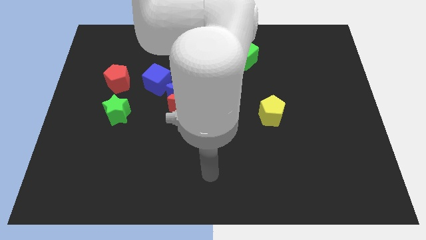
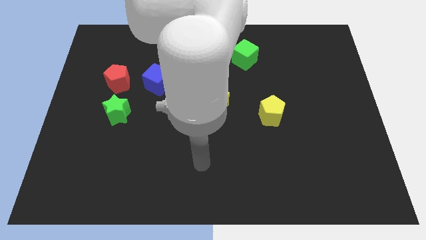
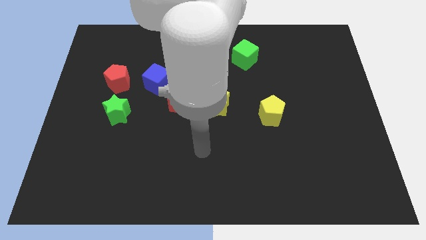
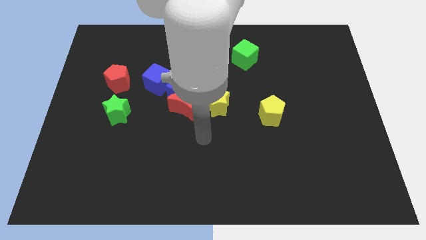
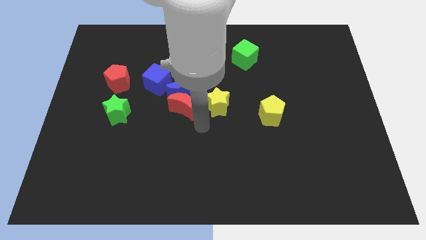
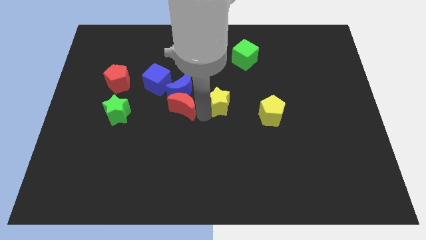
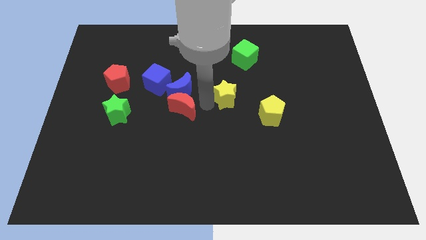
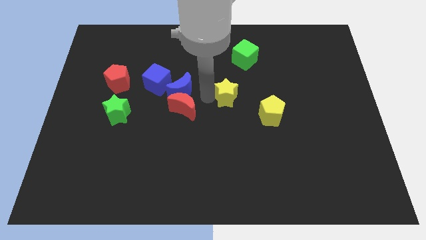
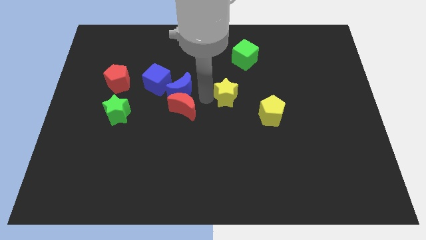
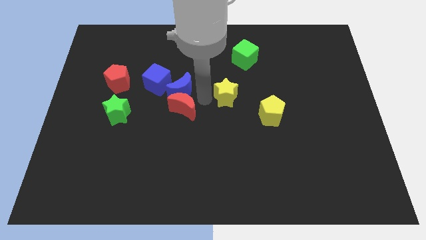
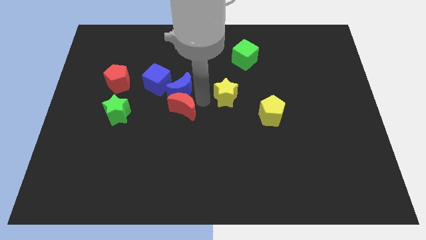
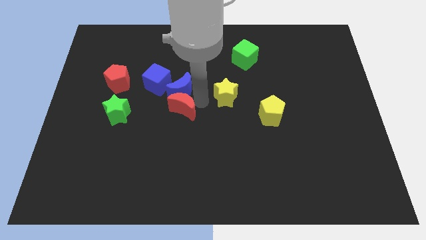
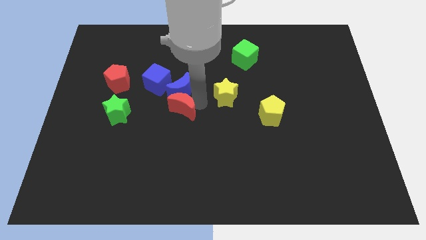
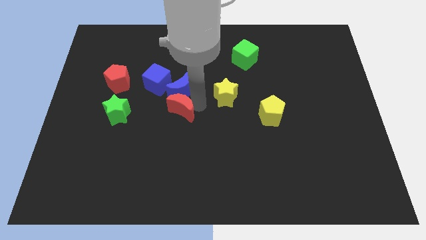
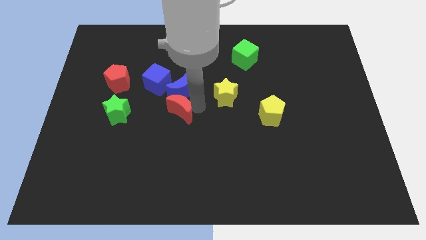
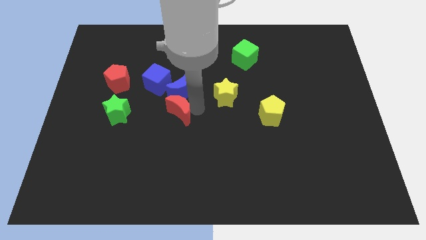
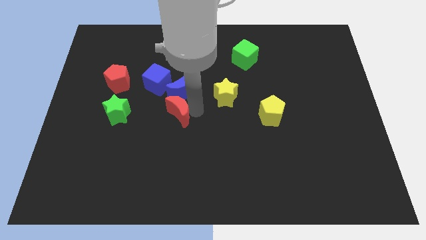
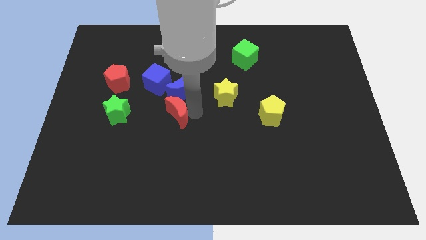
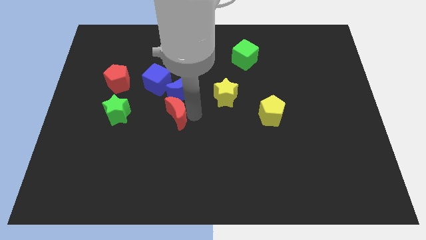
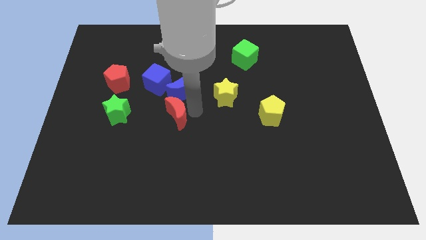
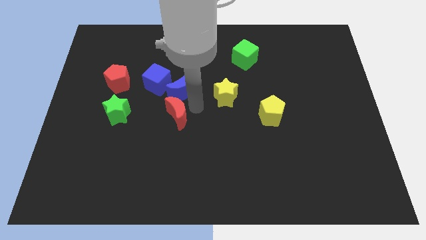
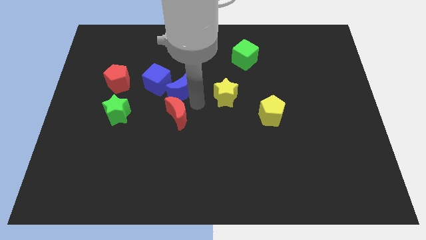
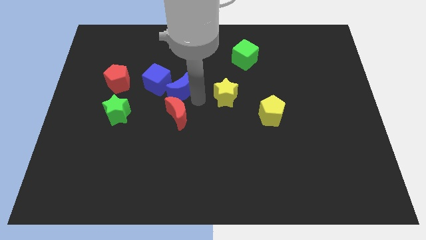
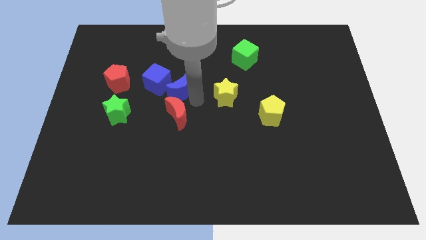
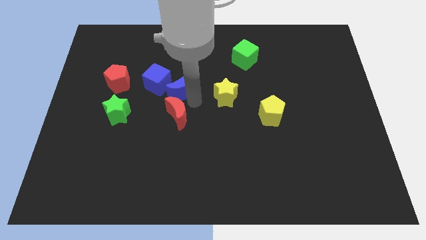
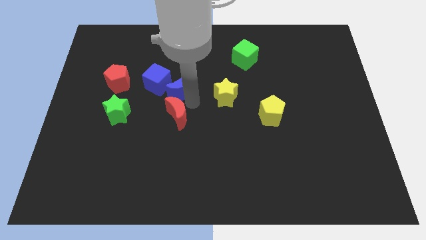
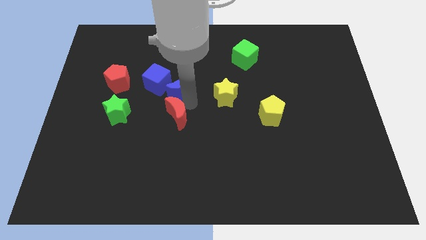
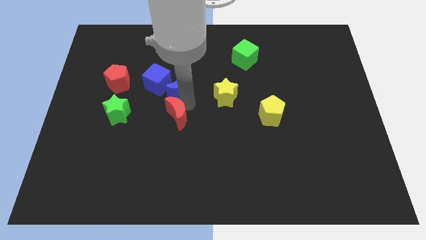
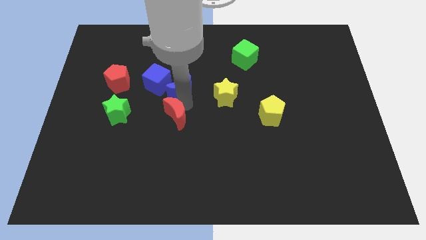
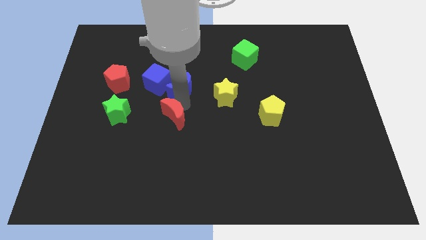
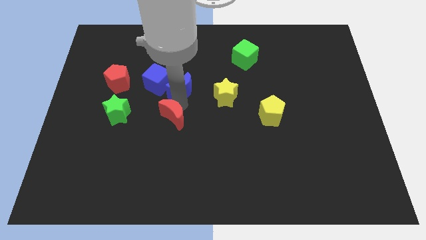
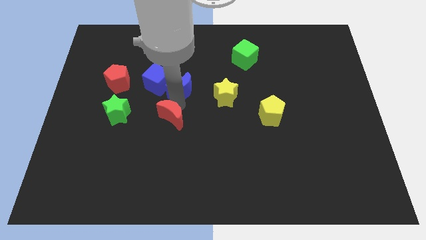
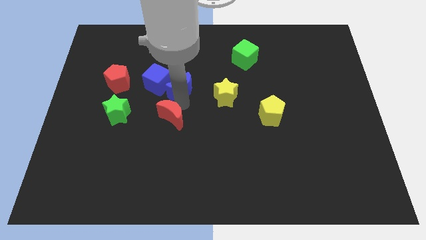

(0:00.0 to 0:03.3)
pull the red moon apart from the blue moon and yellow star

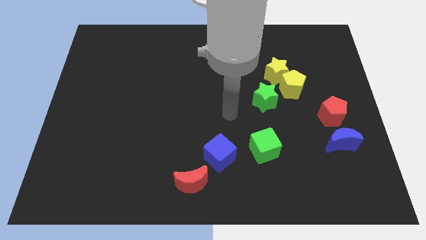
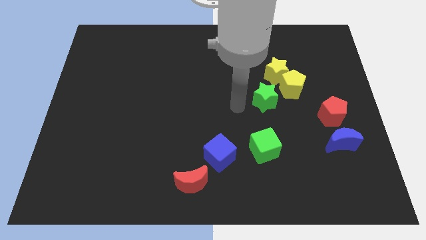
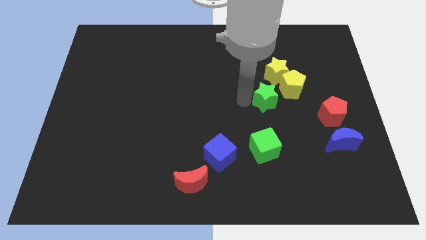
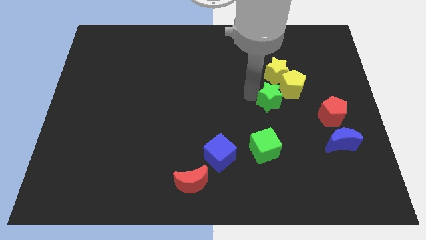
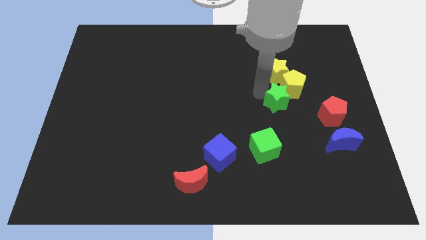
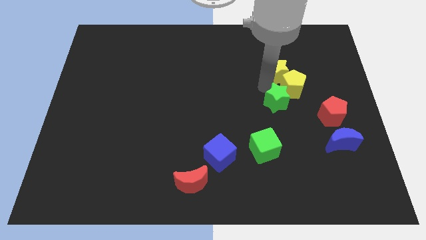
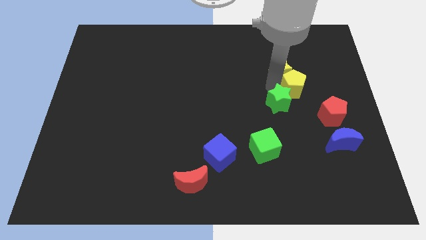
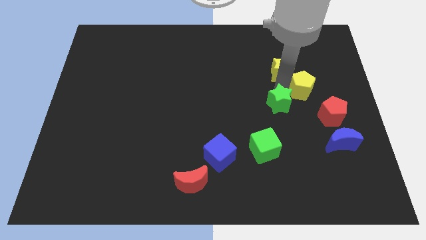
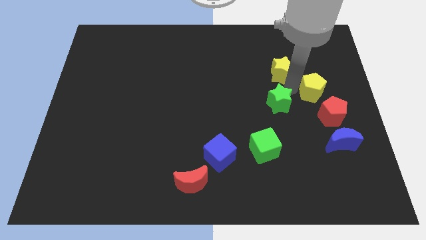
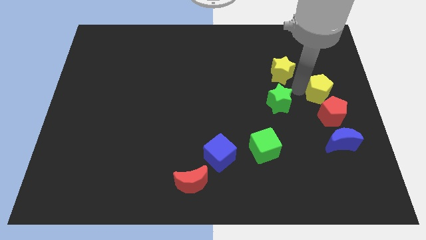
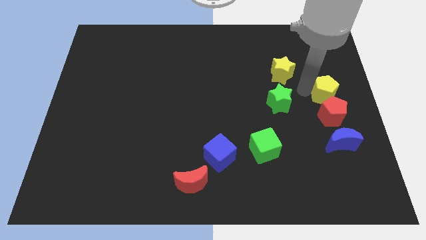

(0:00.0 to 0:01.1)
move the yellow pentagon away from the yellow star and green star

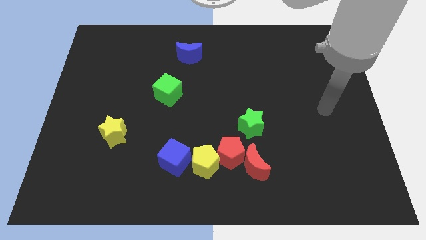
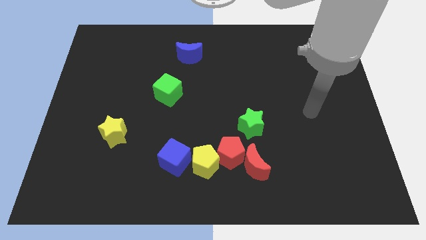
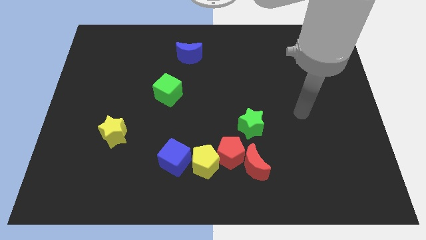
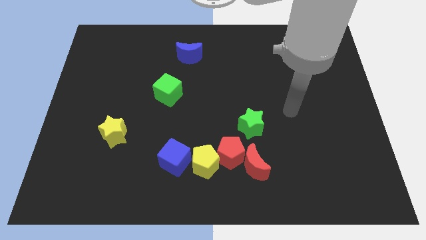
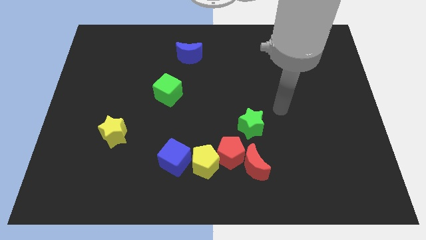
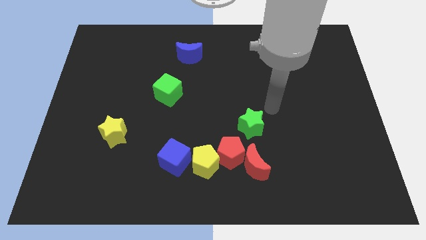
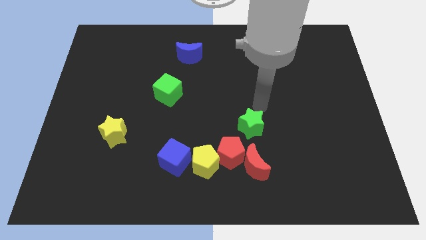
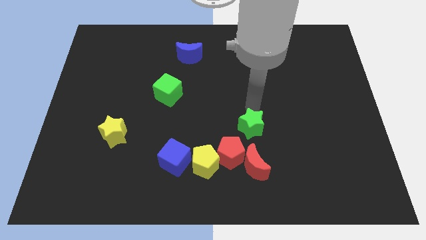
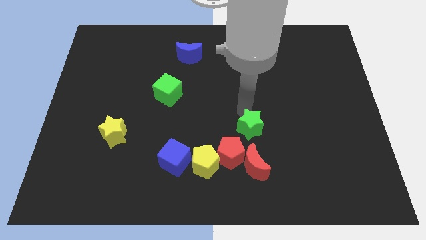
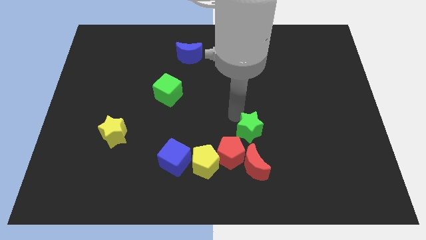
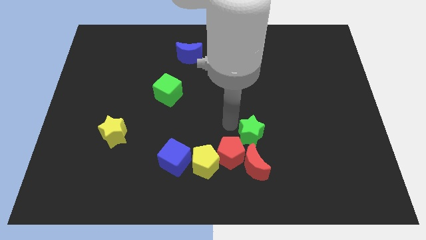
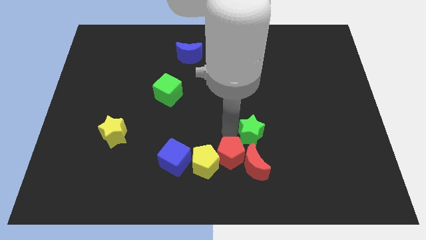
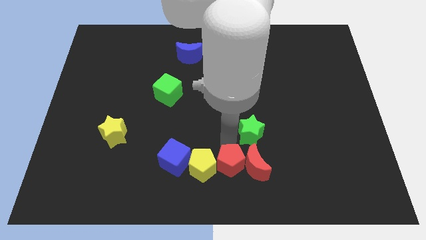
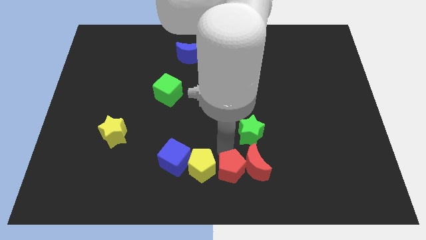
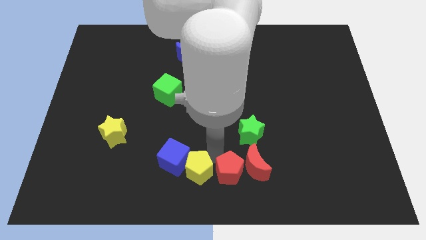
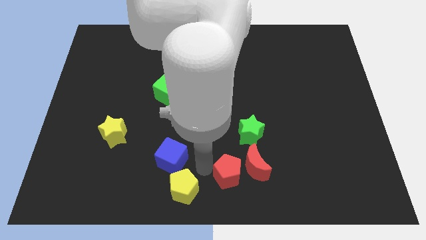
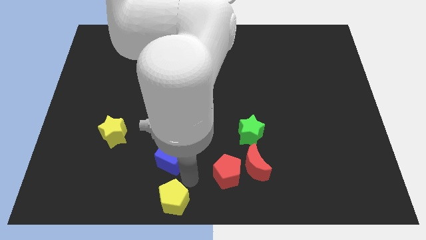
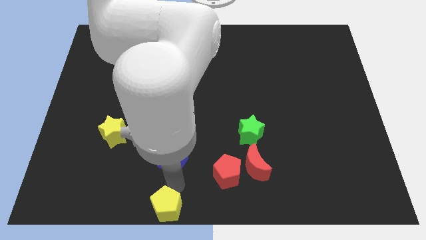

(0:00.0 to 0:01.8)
separate the blue cube from the yellow pentagon

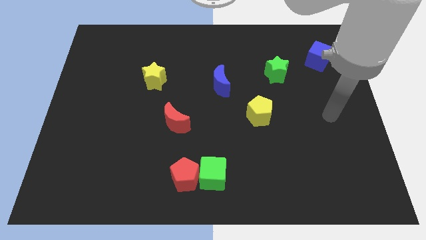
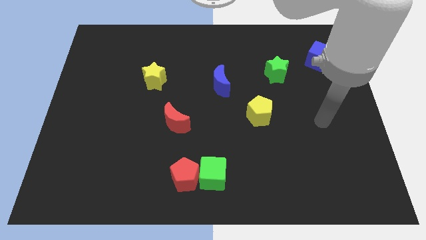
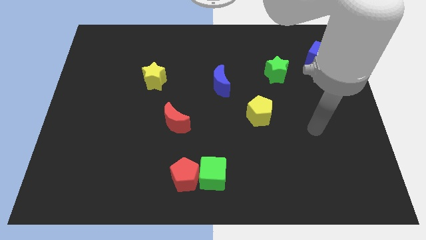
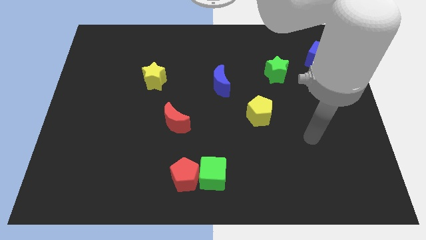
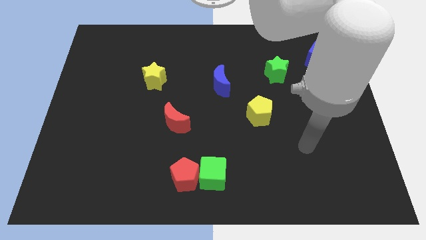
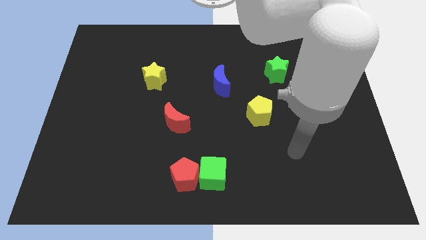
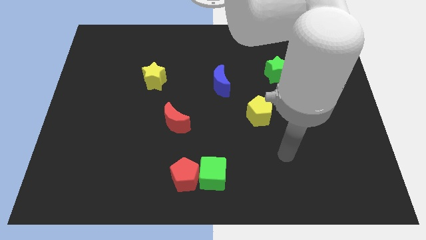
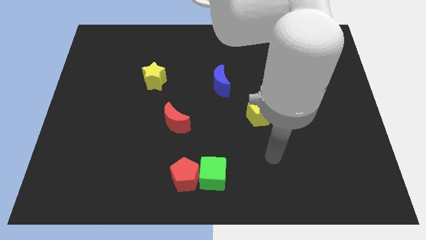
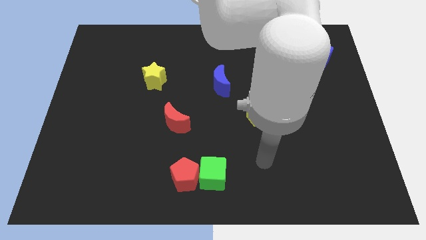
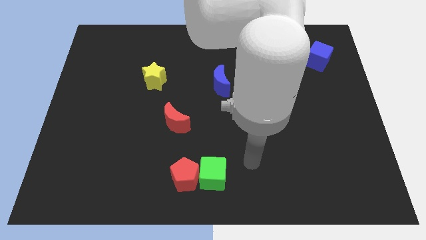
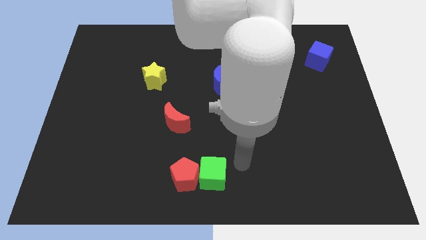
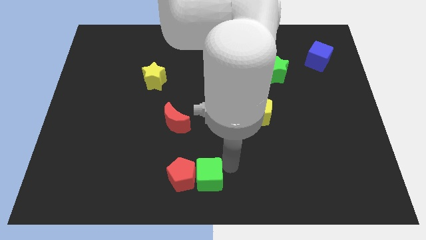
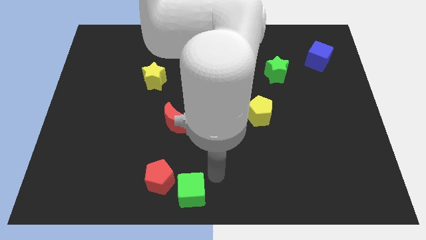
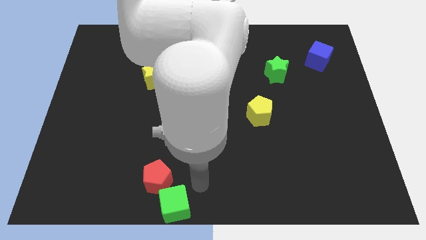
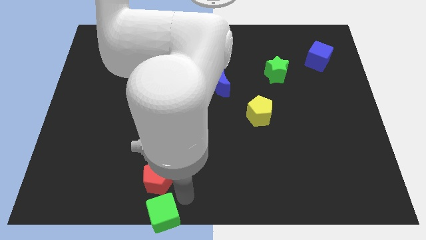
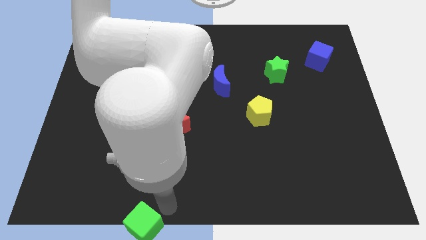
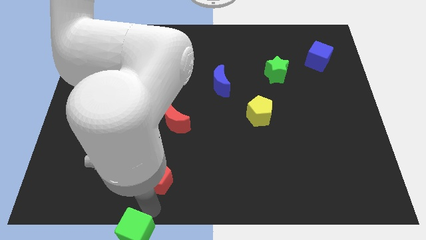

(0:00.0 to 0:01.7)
pull the red pentagon apart from the green cube

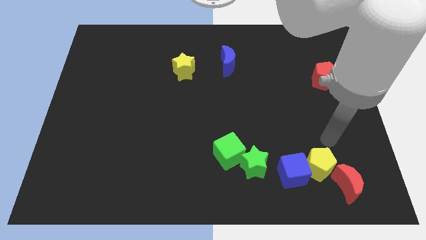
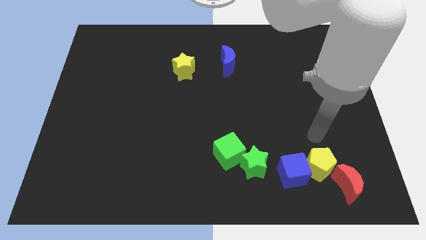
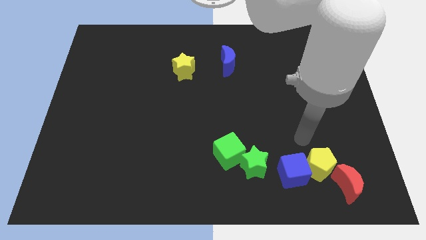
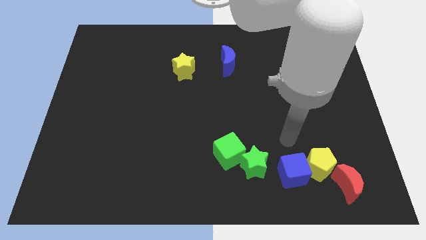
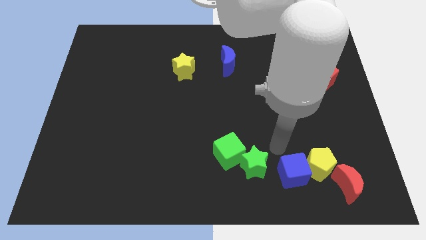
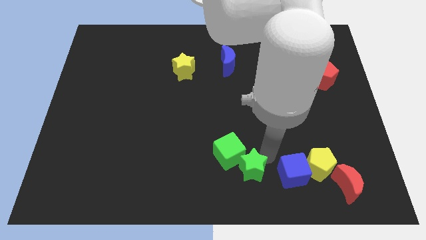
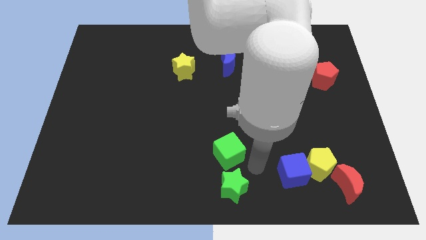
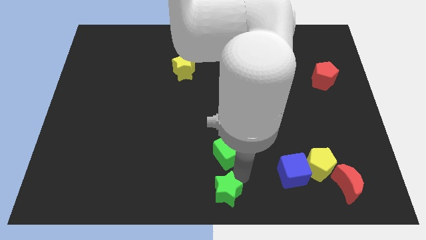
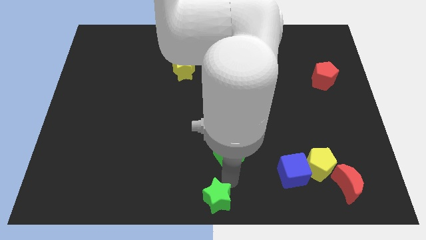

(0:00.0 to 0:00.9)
pull the green cube apart from the green star

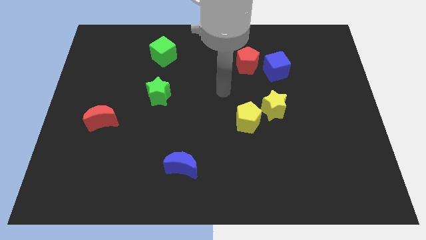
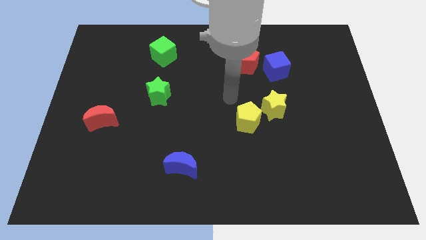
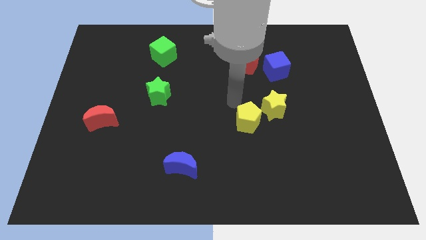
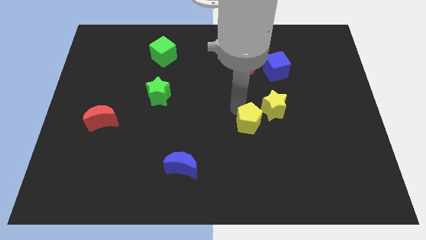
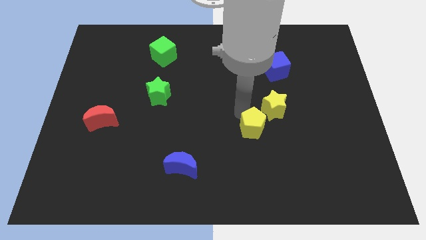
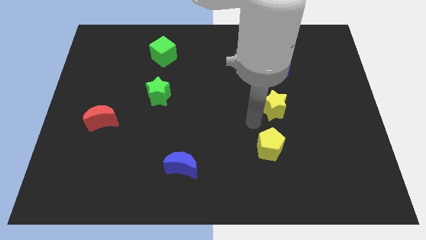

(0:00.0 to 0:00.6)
separate the yellow star from the yellow pentagon

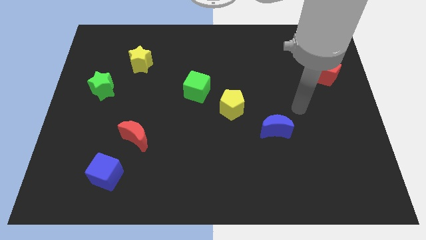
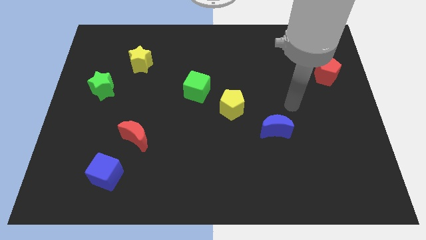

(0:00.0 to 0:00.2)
separate the green cube from the yellow pentagon
